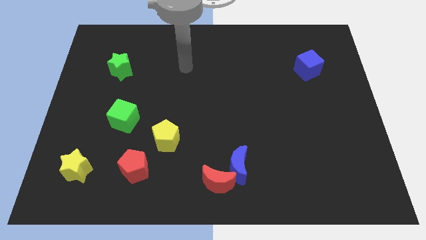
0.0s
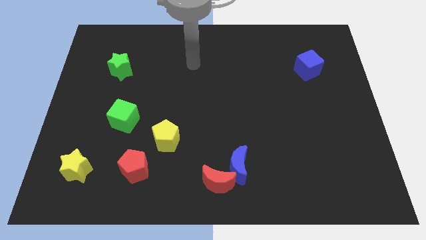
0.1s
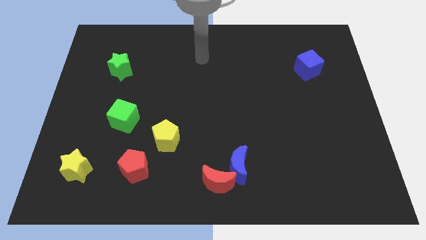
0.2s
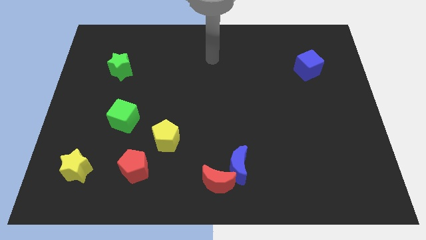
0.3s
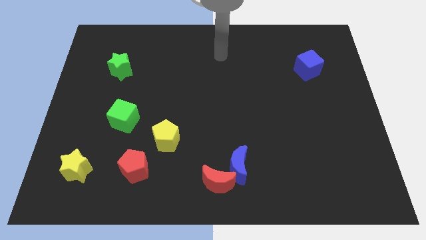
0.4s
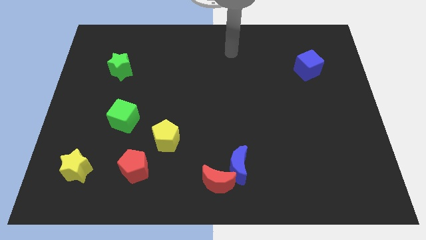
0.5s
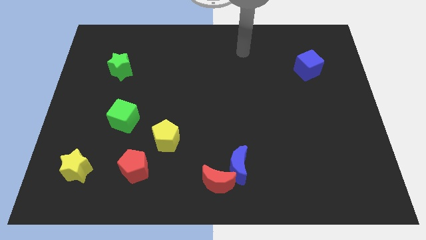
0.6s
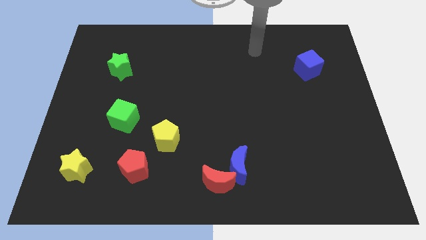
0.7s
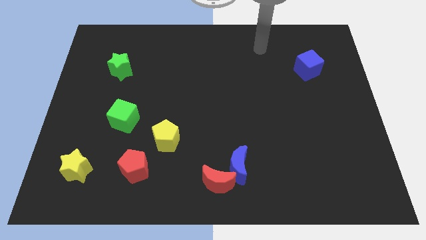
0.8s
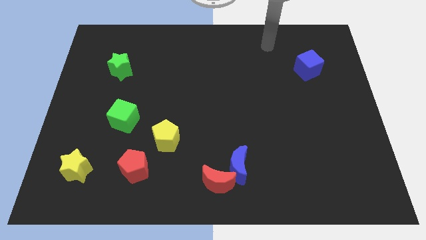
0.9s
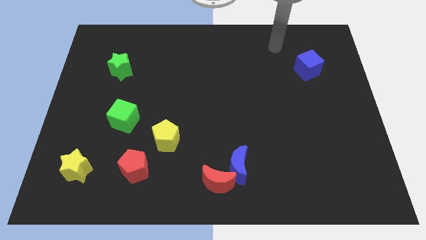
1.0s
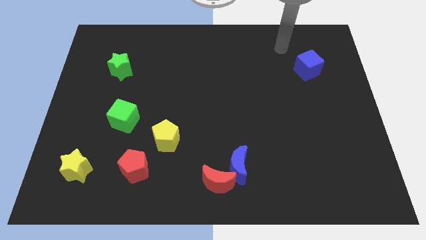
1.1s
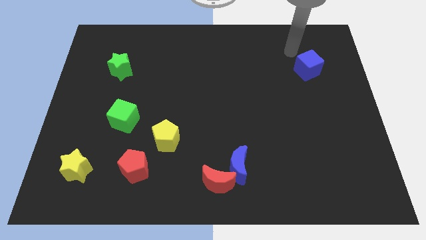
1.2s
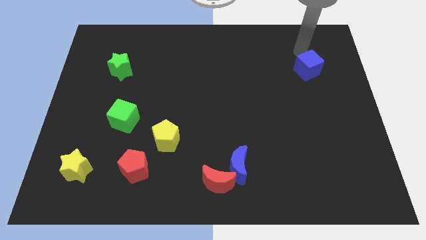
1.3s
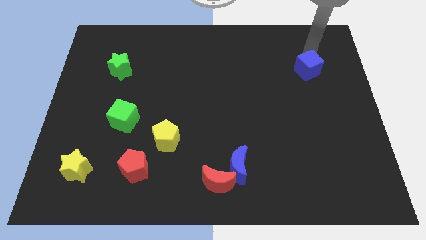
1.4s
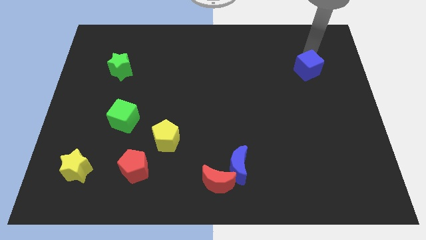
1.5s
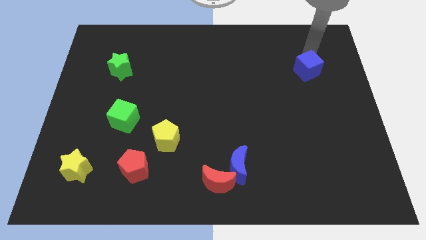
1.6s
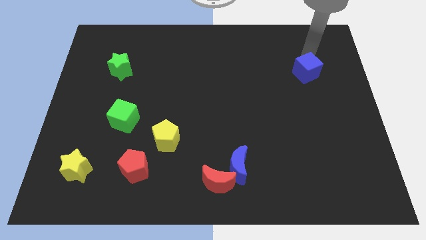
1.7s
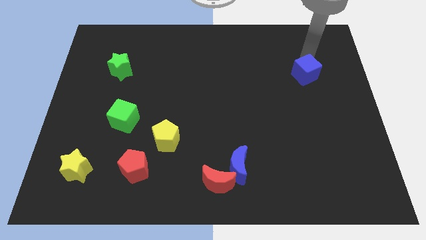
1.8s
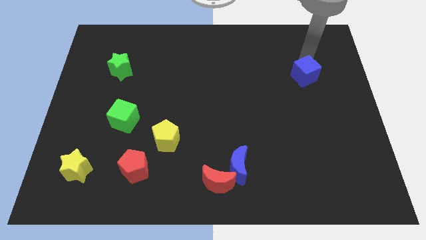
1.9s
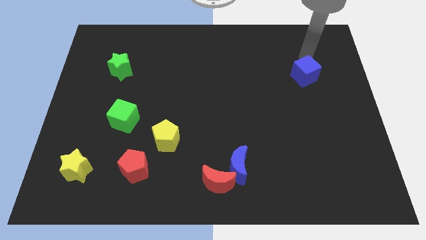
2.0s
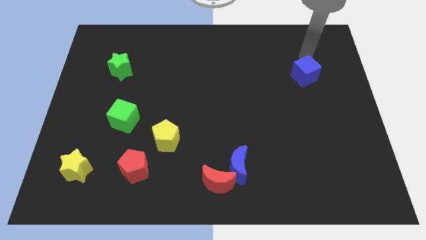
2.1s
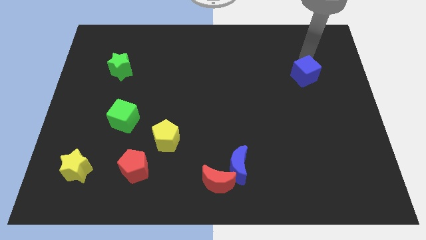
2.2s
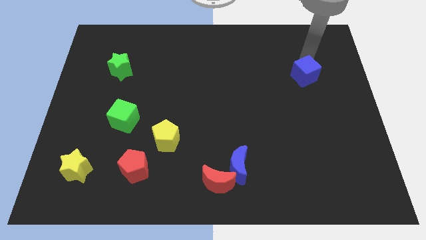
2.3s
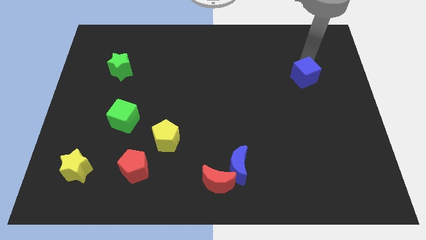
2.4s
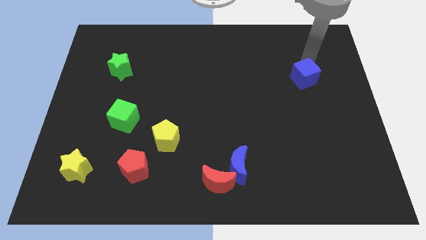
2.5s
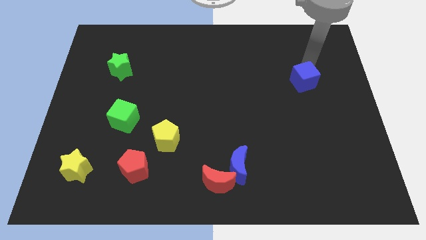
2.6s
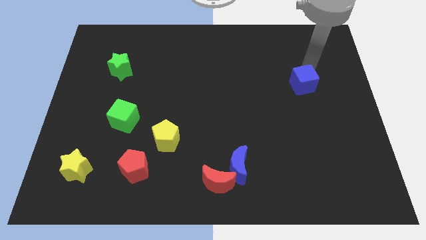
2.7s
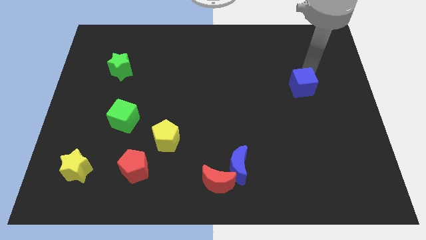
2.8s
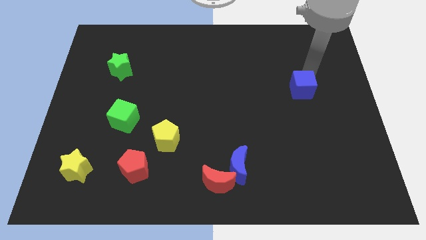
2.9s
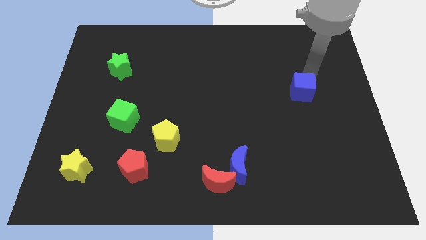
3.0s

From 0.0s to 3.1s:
slightly slide the blue cube downwards

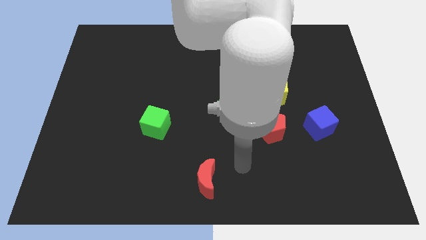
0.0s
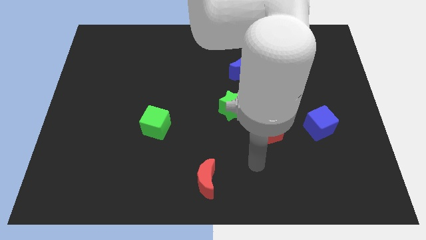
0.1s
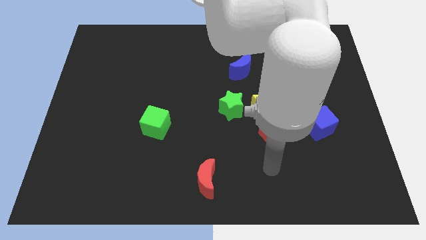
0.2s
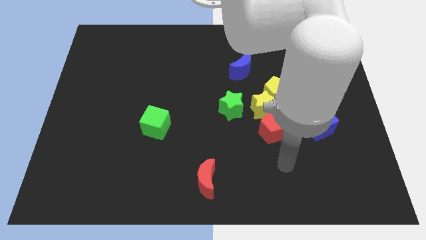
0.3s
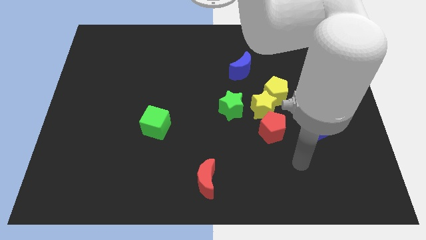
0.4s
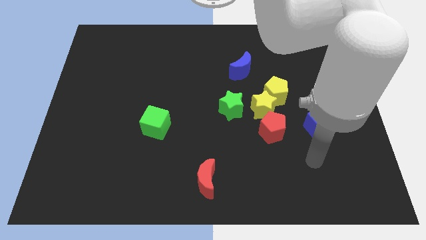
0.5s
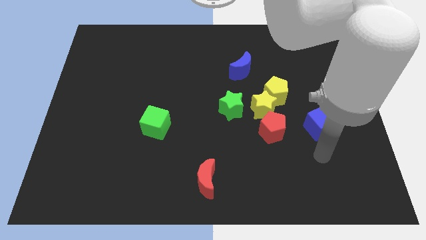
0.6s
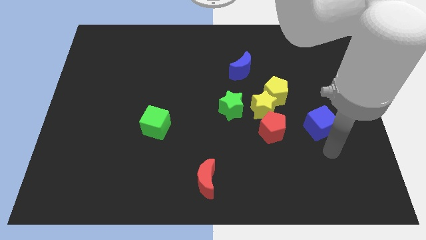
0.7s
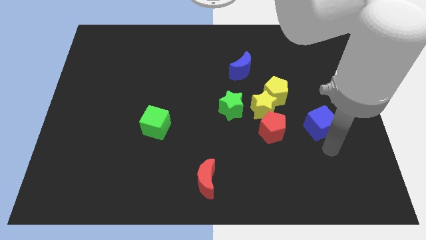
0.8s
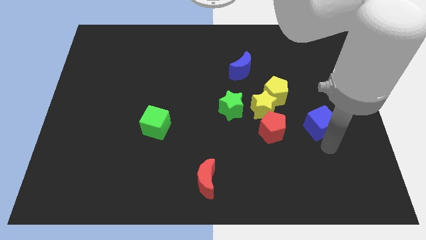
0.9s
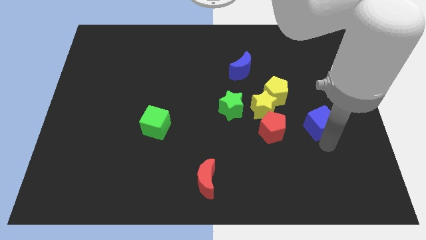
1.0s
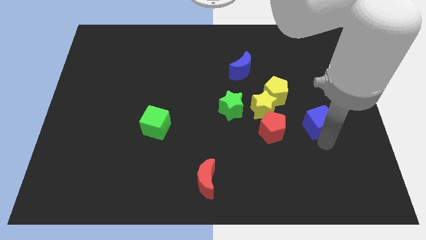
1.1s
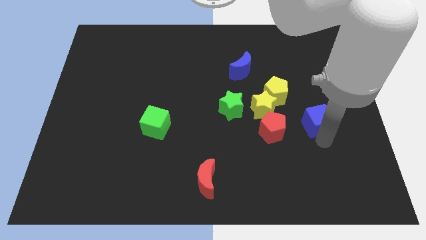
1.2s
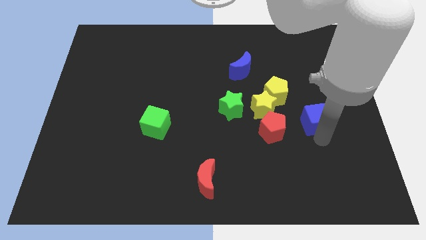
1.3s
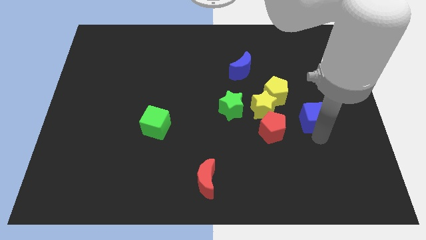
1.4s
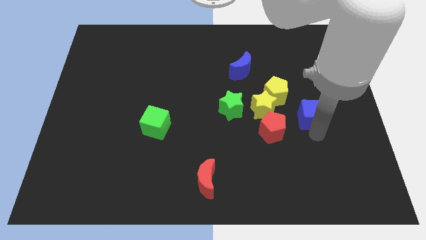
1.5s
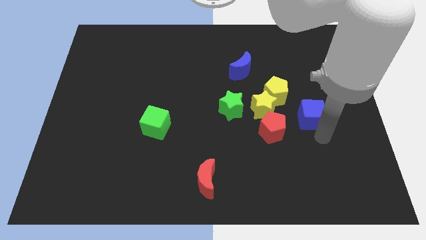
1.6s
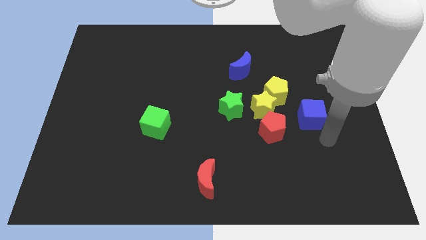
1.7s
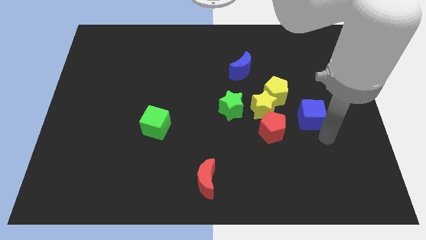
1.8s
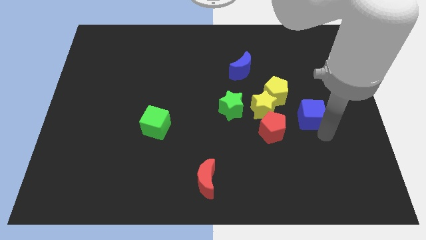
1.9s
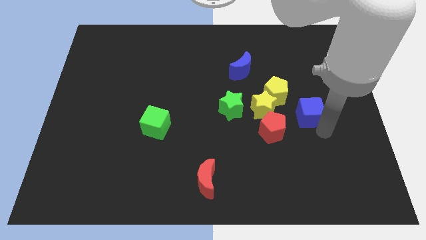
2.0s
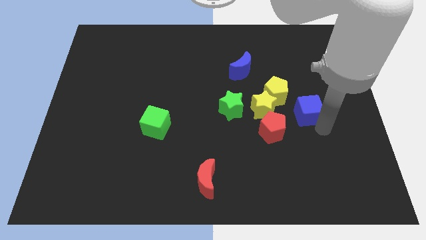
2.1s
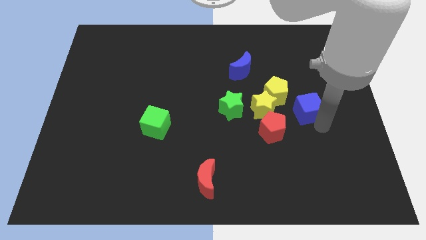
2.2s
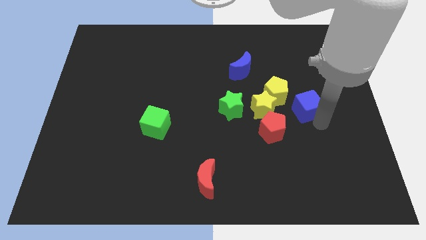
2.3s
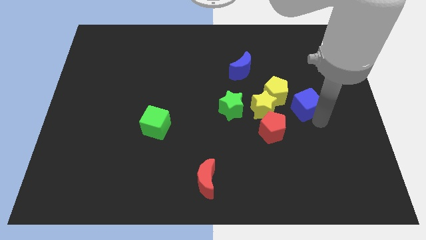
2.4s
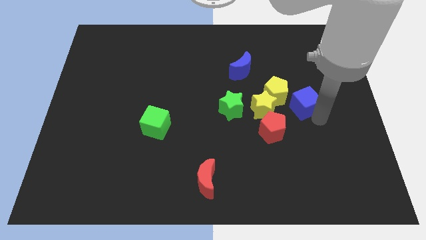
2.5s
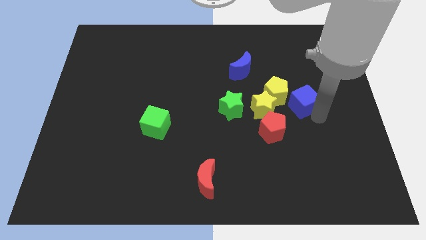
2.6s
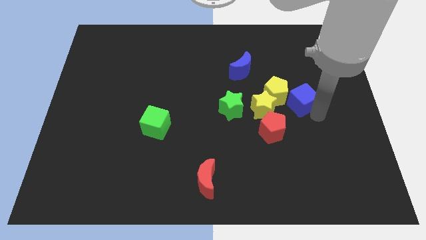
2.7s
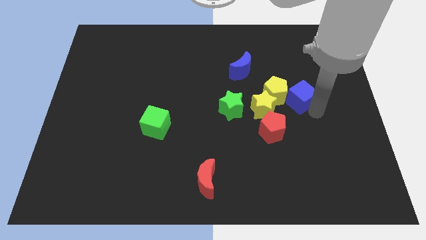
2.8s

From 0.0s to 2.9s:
slide the blue cube a little diagonally upwards and to the left

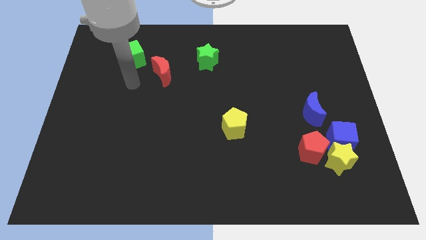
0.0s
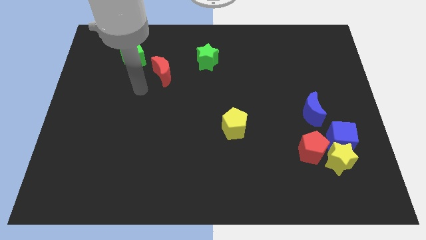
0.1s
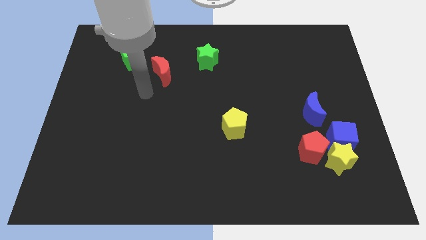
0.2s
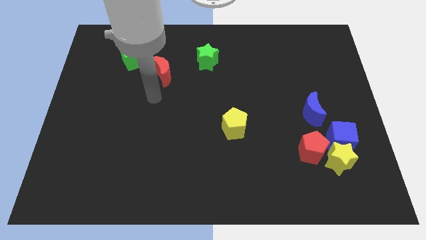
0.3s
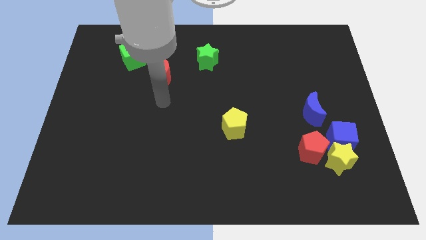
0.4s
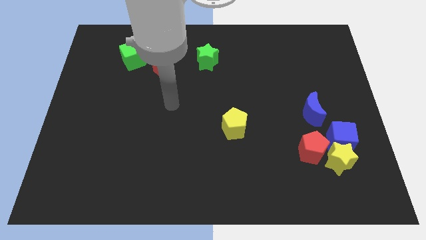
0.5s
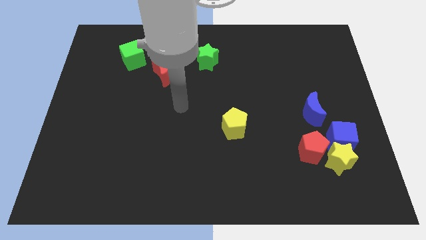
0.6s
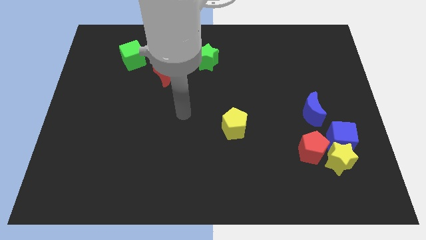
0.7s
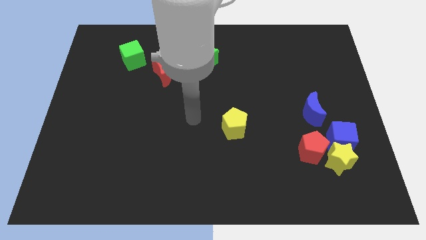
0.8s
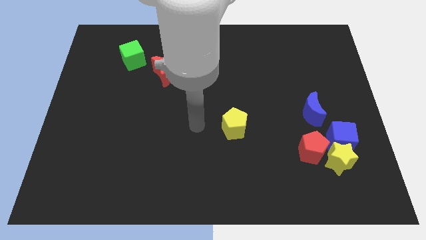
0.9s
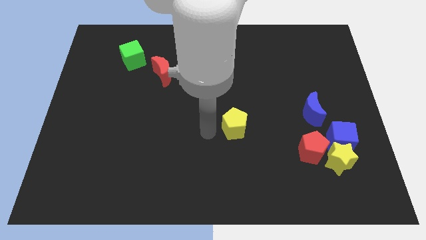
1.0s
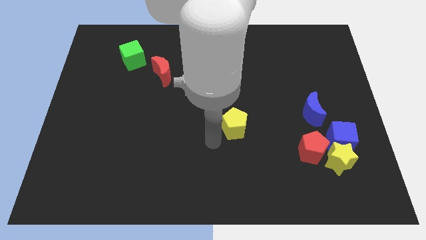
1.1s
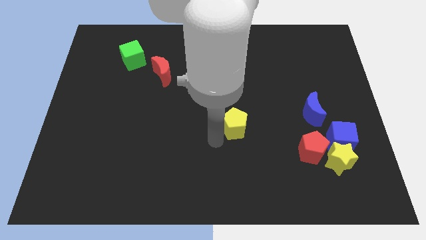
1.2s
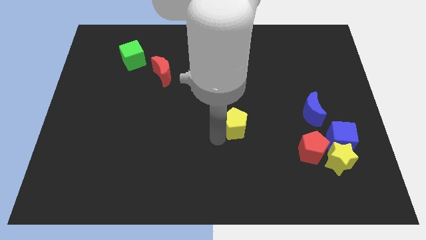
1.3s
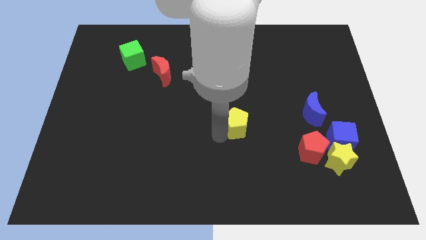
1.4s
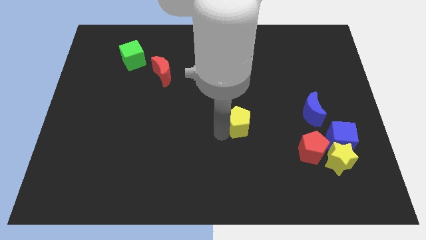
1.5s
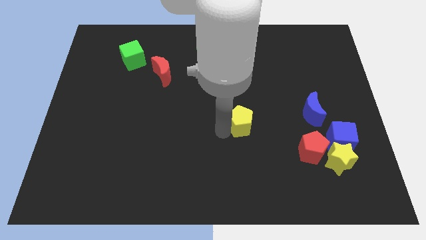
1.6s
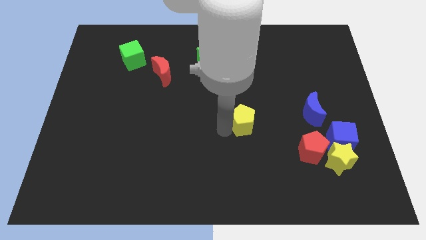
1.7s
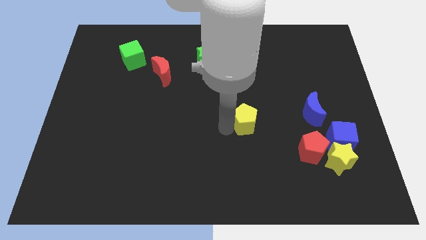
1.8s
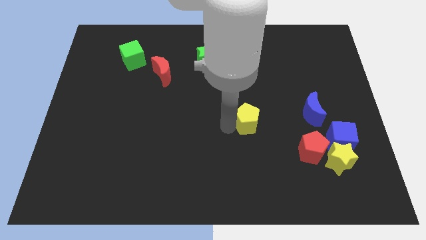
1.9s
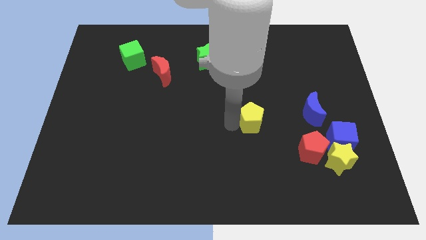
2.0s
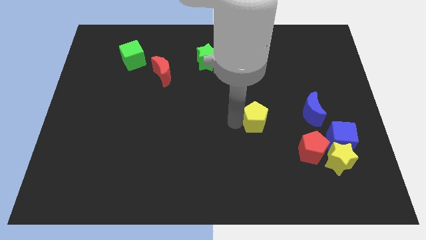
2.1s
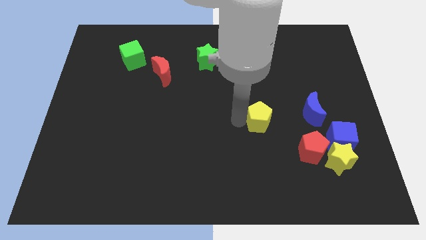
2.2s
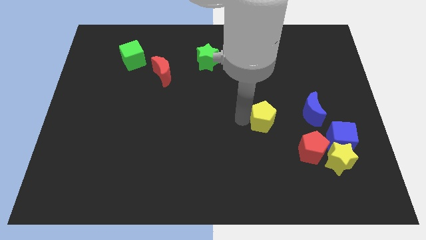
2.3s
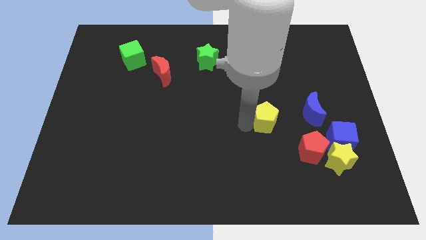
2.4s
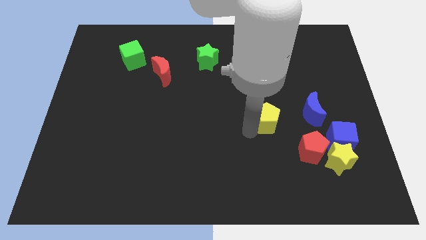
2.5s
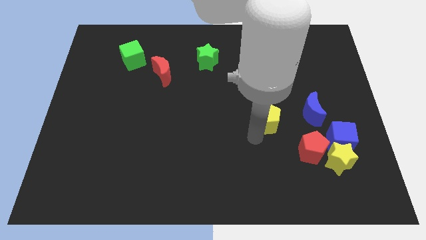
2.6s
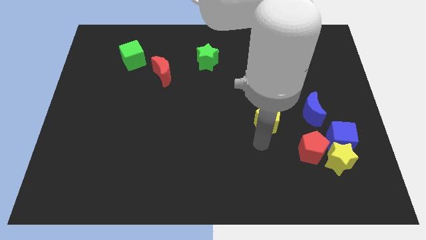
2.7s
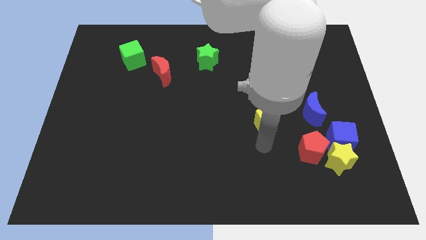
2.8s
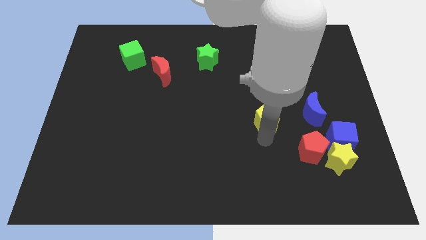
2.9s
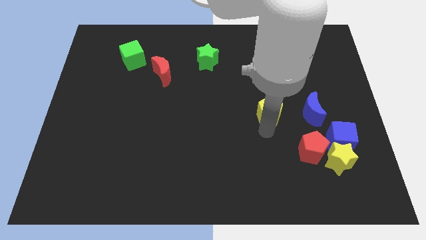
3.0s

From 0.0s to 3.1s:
slightly push the yellow pentagon up and to the right
